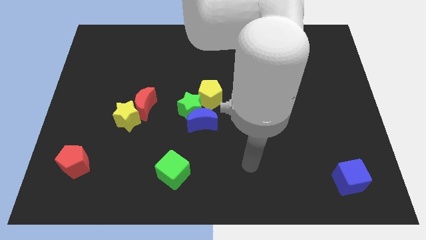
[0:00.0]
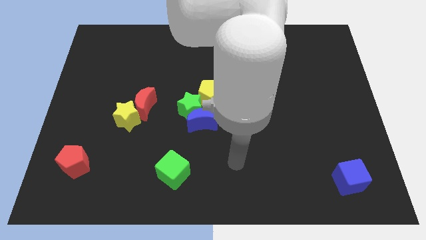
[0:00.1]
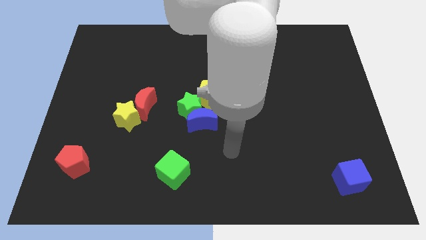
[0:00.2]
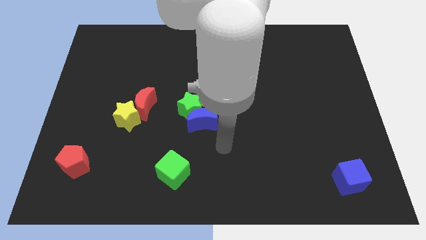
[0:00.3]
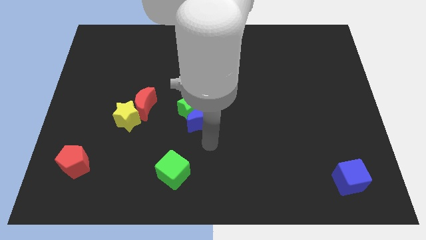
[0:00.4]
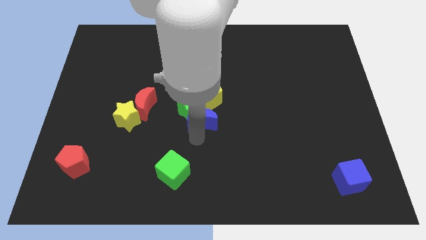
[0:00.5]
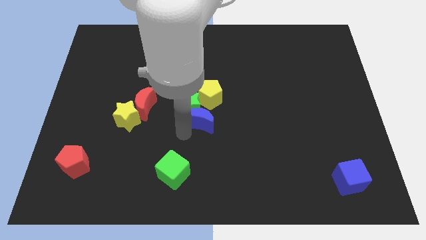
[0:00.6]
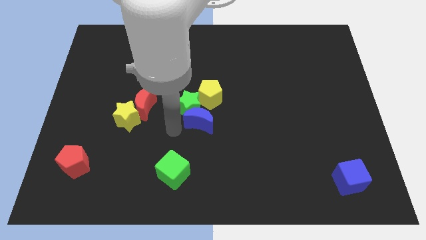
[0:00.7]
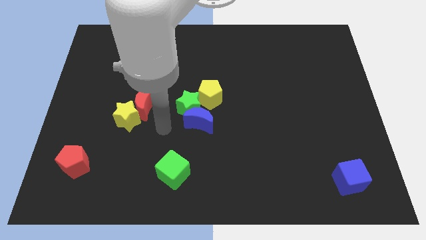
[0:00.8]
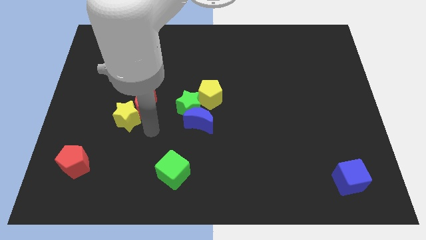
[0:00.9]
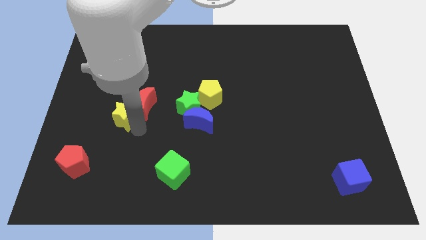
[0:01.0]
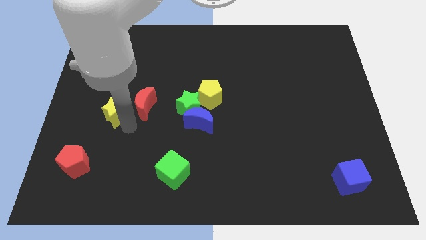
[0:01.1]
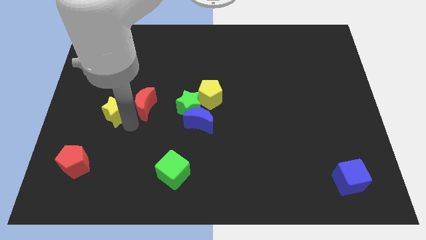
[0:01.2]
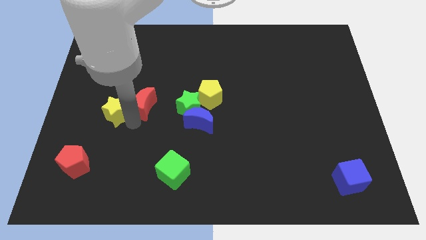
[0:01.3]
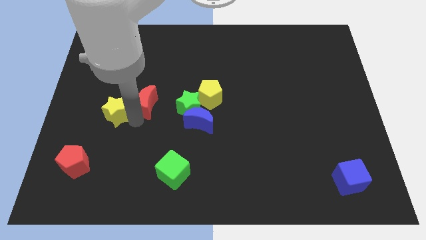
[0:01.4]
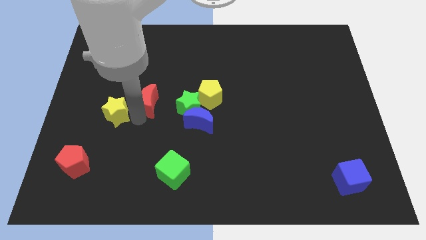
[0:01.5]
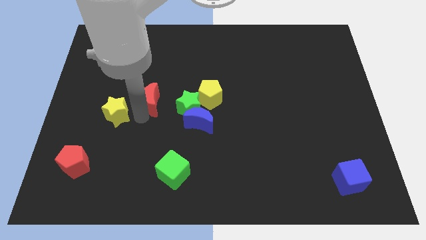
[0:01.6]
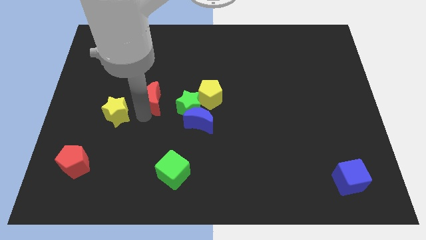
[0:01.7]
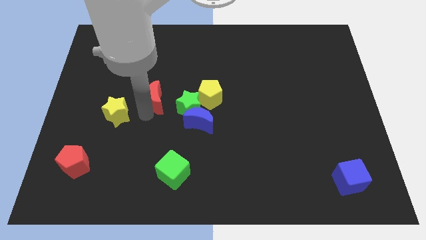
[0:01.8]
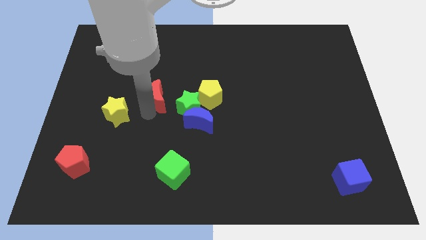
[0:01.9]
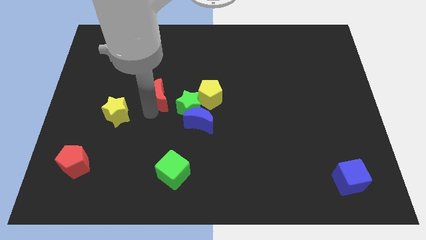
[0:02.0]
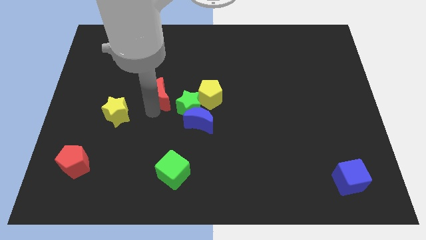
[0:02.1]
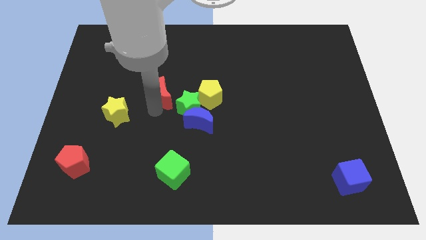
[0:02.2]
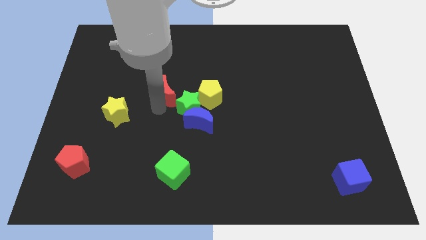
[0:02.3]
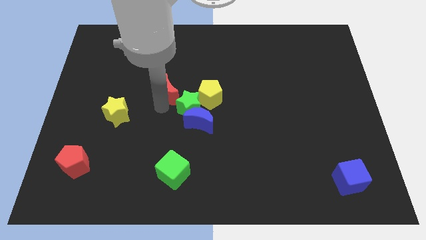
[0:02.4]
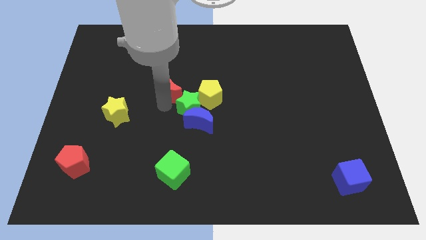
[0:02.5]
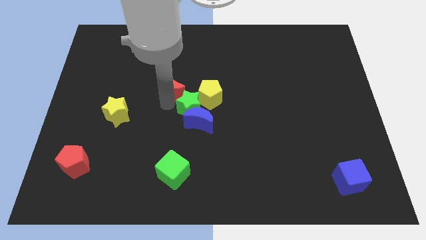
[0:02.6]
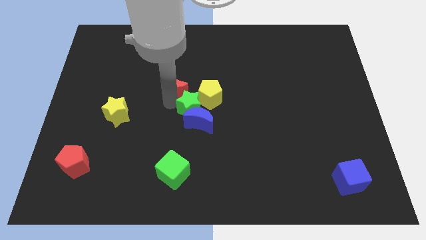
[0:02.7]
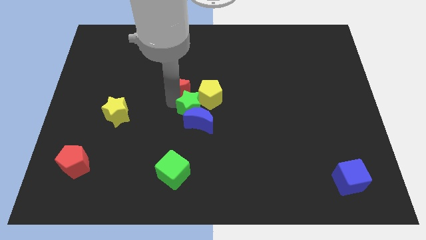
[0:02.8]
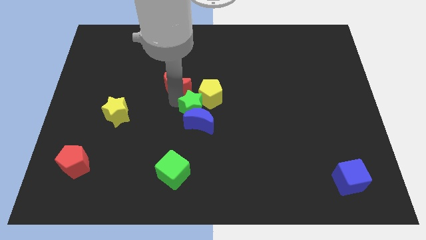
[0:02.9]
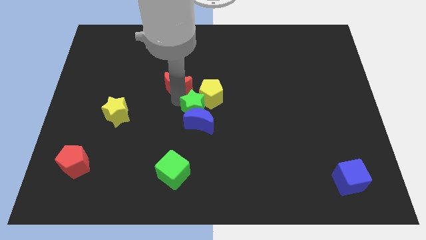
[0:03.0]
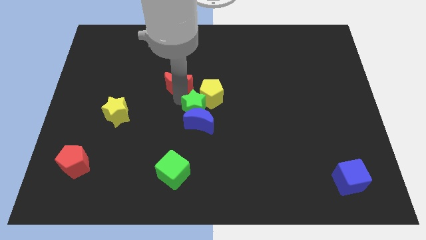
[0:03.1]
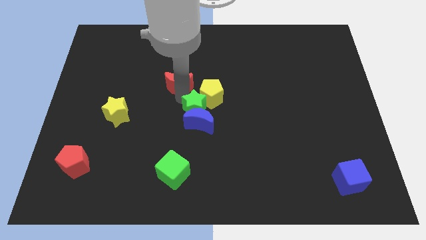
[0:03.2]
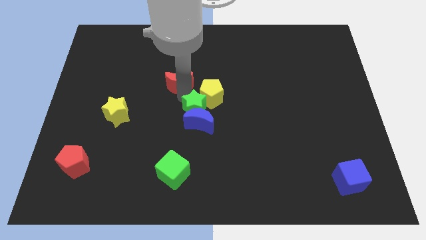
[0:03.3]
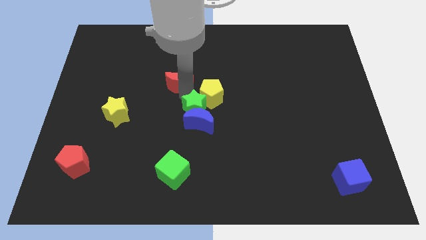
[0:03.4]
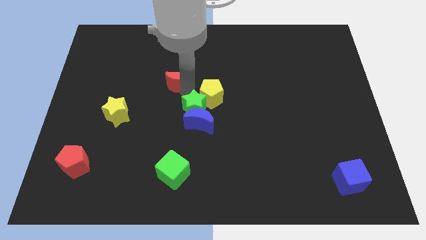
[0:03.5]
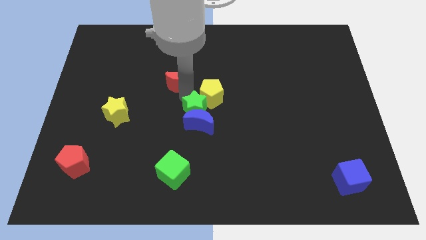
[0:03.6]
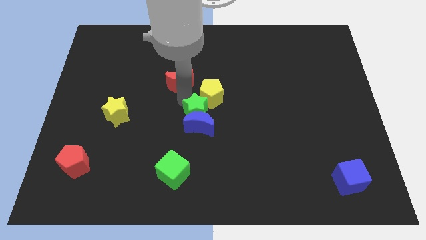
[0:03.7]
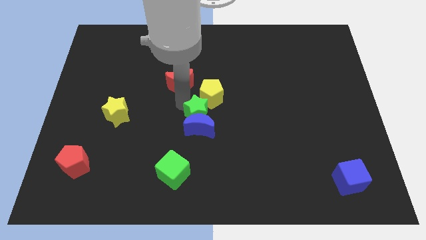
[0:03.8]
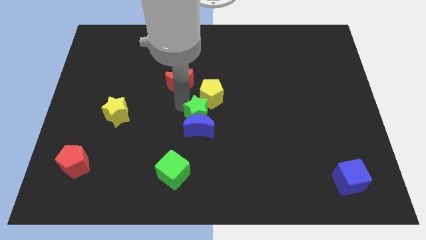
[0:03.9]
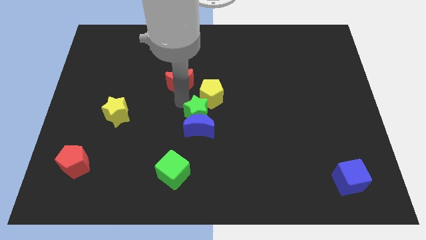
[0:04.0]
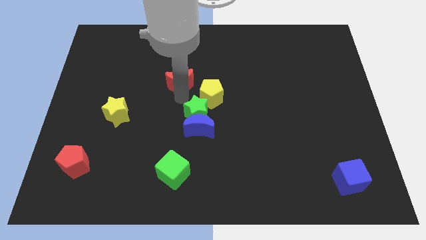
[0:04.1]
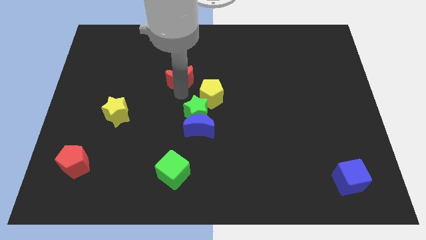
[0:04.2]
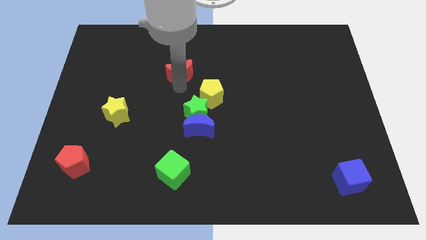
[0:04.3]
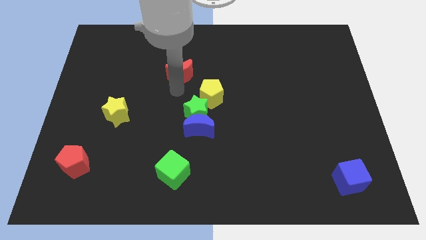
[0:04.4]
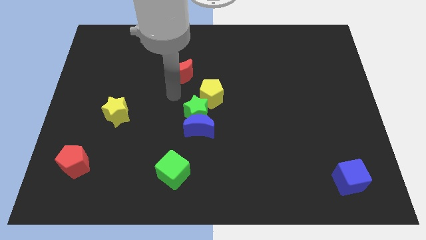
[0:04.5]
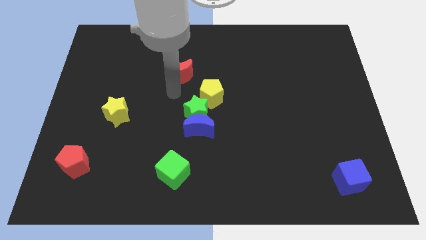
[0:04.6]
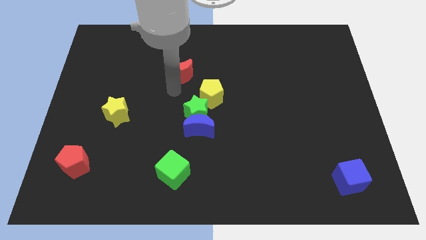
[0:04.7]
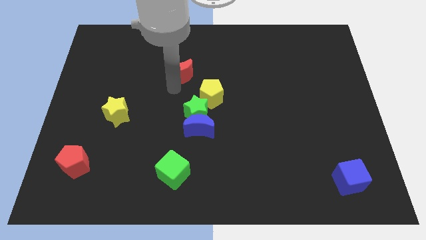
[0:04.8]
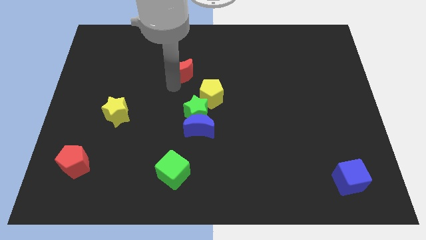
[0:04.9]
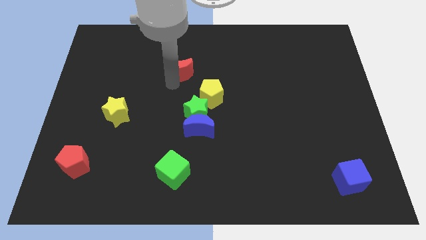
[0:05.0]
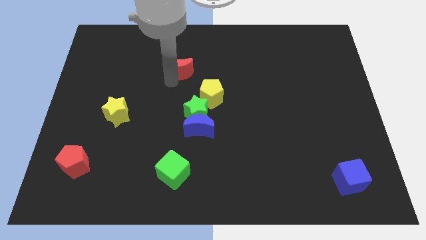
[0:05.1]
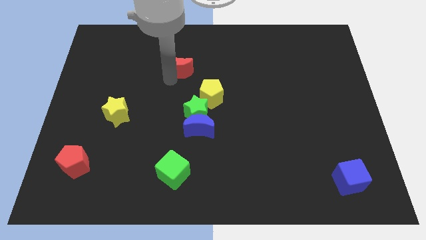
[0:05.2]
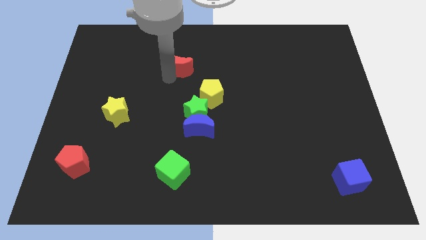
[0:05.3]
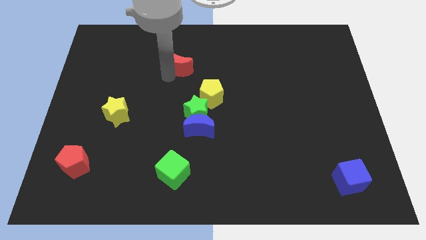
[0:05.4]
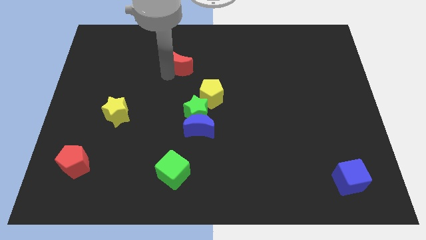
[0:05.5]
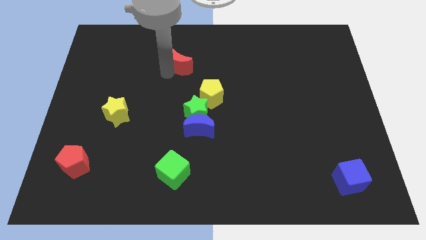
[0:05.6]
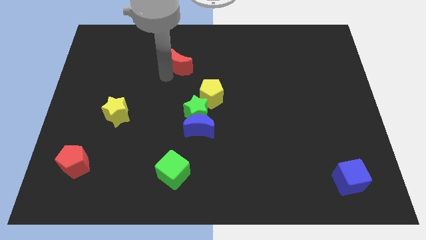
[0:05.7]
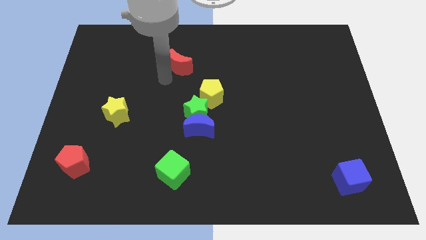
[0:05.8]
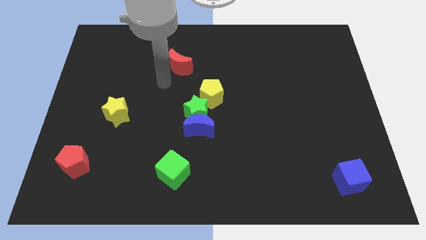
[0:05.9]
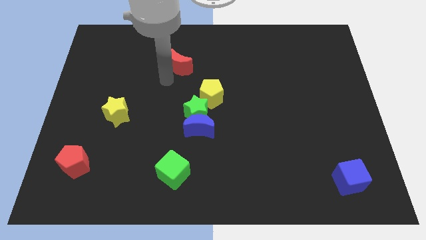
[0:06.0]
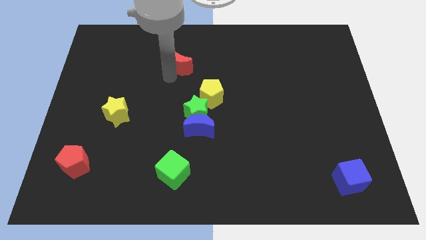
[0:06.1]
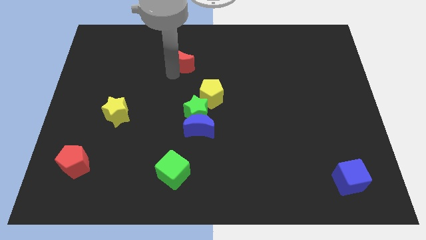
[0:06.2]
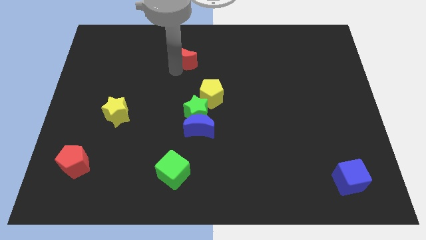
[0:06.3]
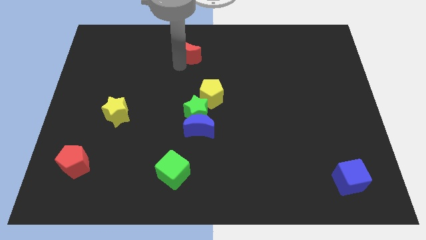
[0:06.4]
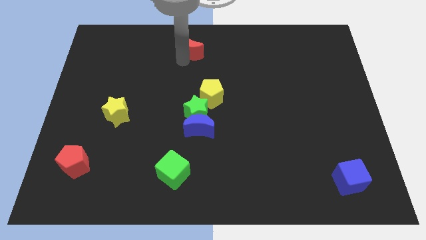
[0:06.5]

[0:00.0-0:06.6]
push the red moon to the top
